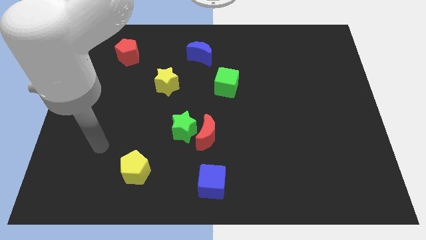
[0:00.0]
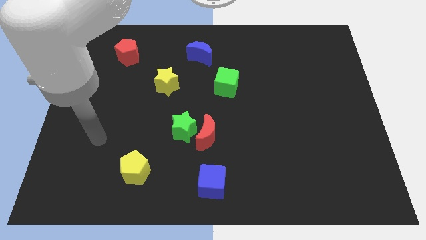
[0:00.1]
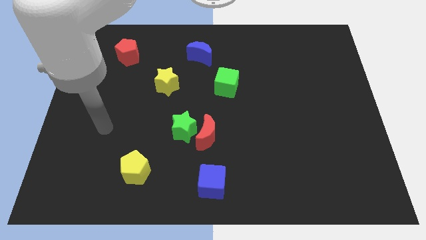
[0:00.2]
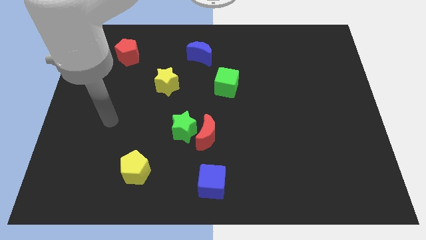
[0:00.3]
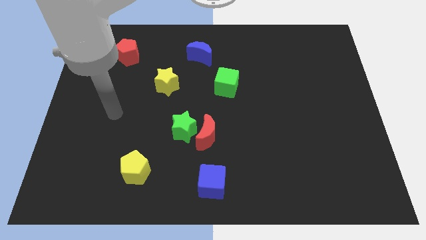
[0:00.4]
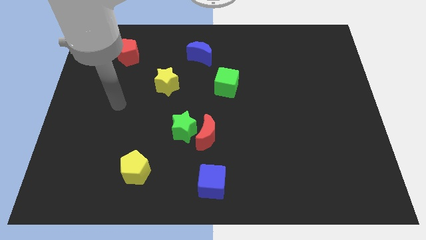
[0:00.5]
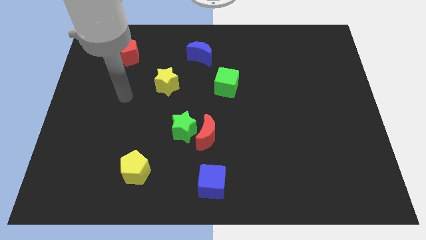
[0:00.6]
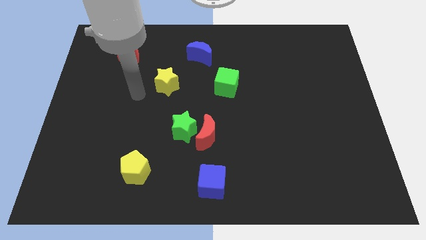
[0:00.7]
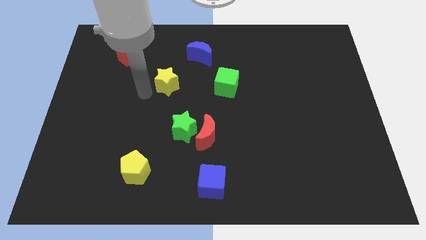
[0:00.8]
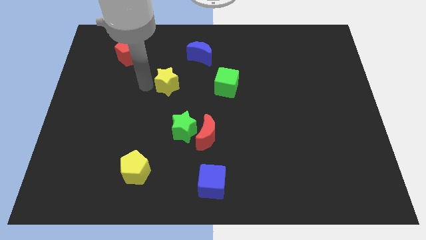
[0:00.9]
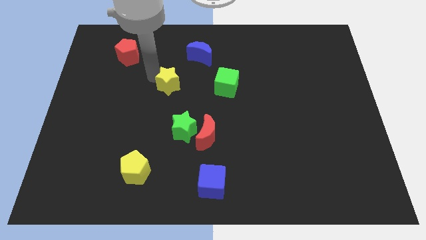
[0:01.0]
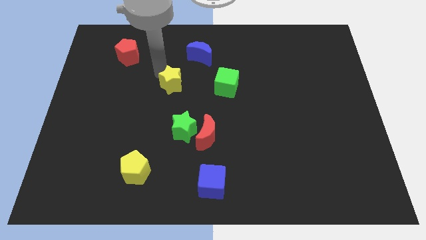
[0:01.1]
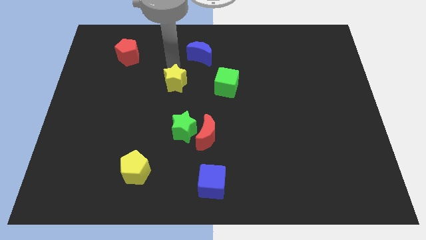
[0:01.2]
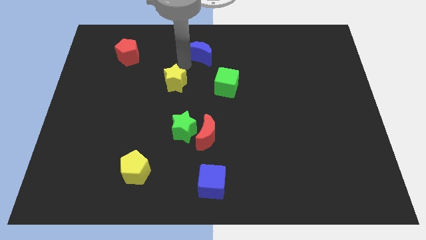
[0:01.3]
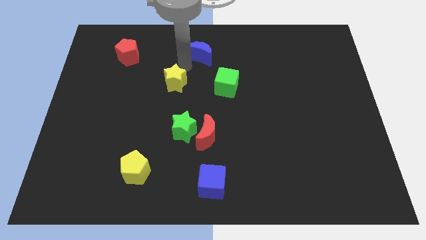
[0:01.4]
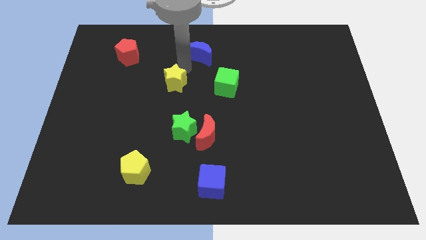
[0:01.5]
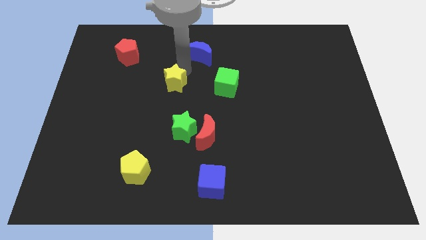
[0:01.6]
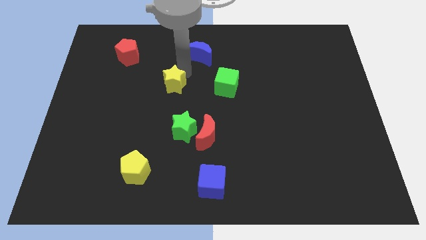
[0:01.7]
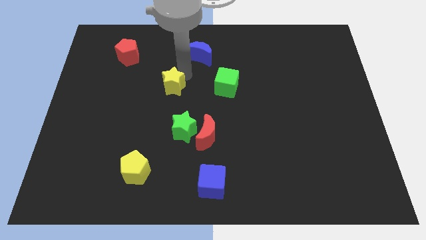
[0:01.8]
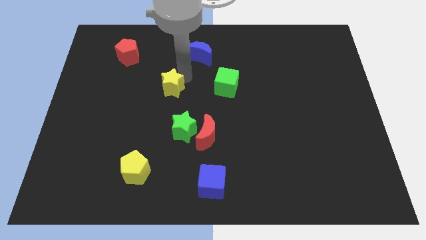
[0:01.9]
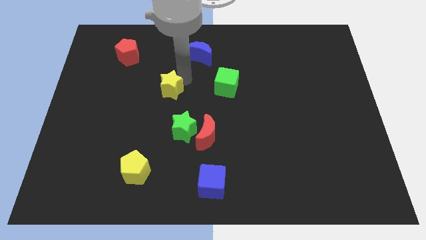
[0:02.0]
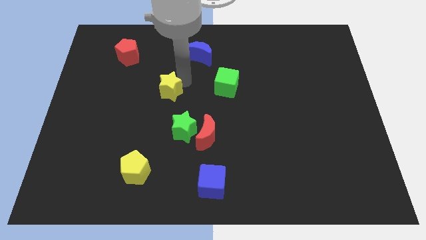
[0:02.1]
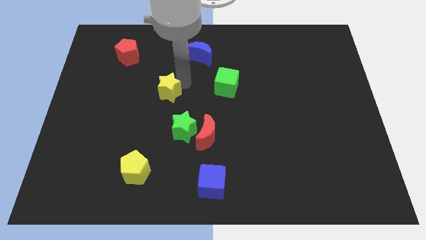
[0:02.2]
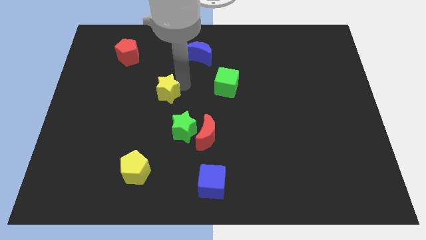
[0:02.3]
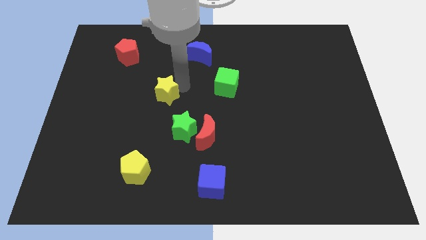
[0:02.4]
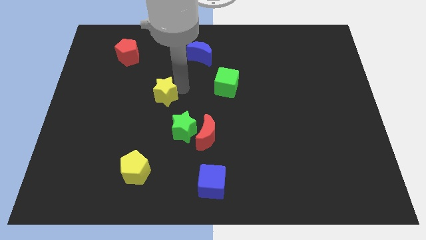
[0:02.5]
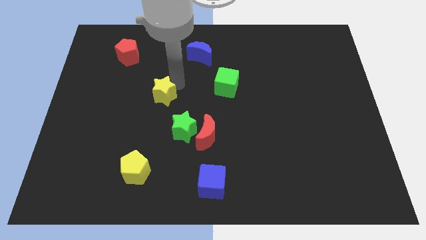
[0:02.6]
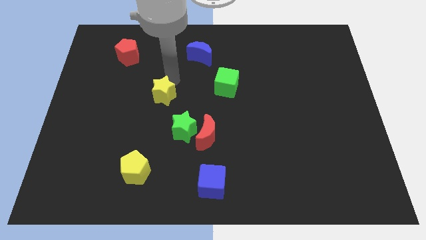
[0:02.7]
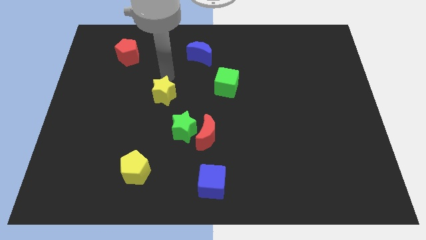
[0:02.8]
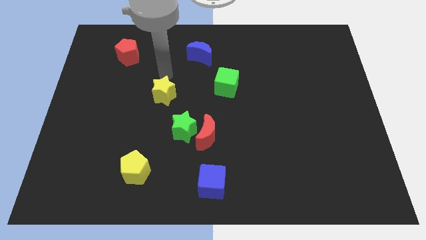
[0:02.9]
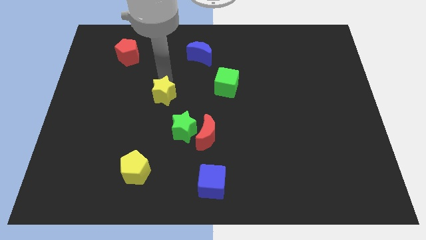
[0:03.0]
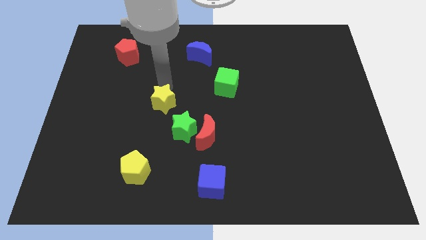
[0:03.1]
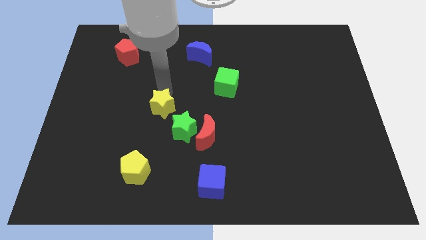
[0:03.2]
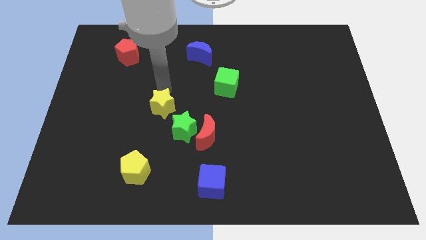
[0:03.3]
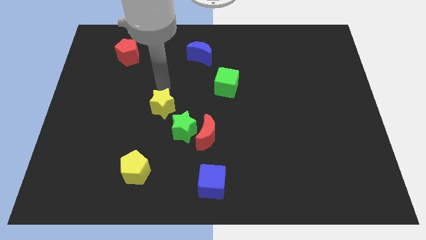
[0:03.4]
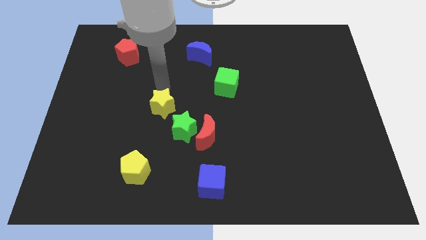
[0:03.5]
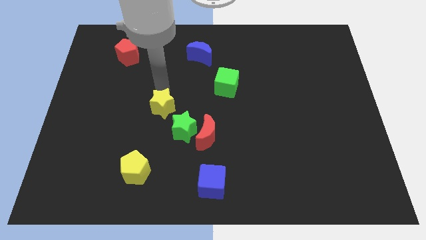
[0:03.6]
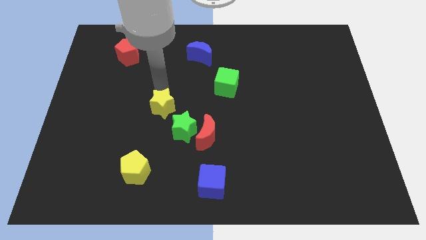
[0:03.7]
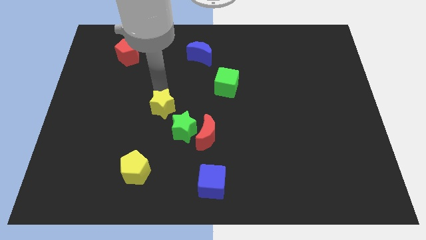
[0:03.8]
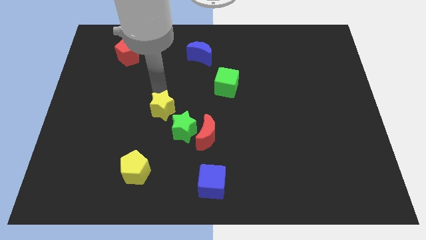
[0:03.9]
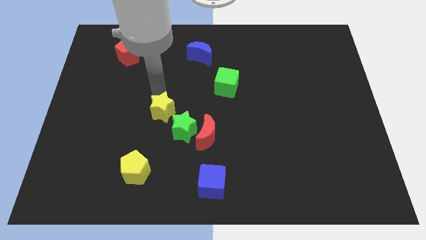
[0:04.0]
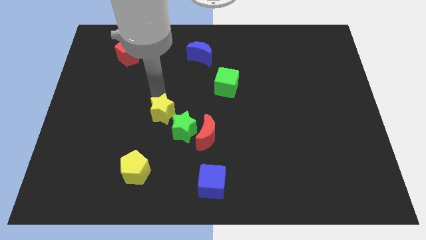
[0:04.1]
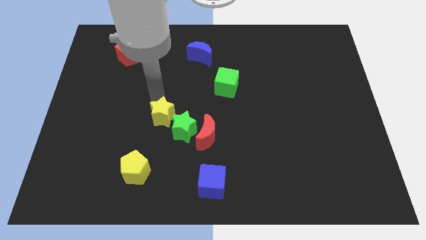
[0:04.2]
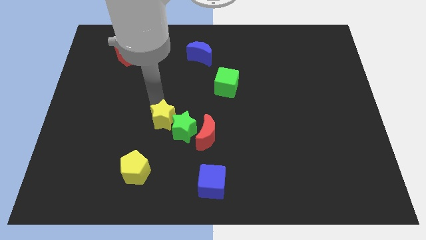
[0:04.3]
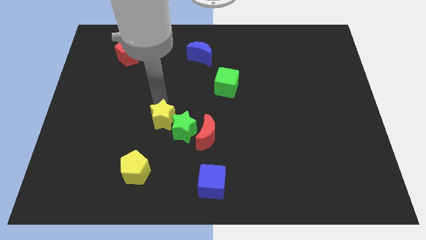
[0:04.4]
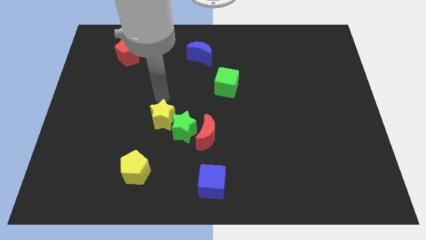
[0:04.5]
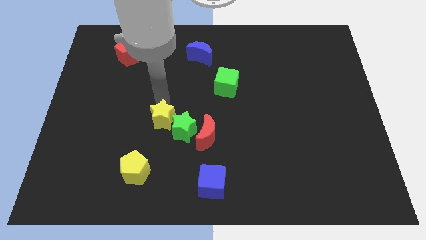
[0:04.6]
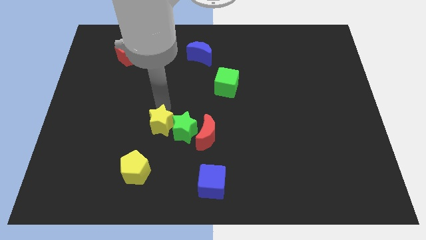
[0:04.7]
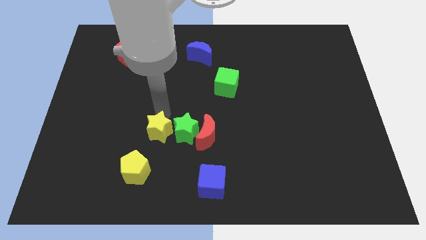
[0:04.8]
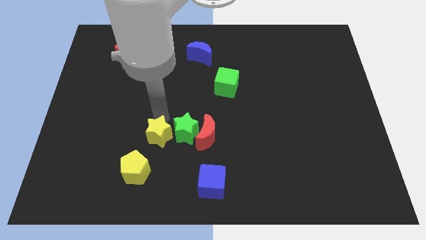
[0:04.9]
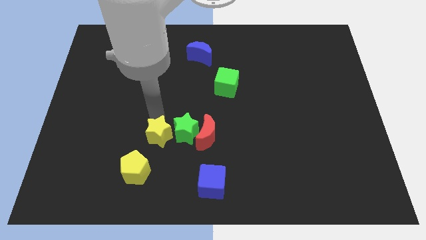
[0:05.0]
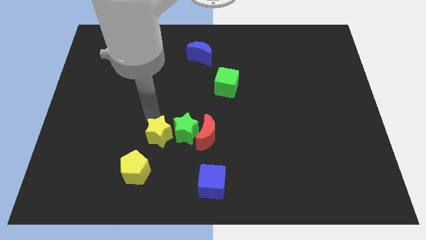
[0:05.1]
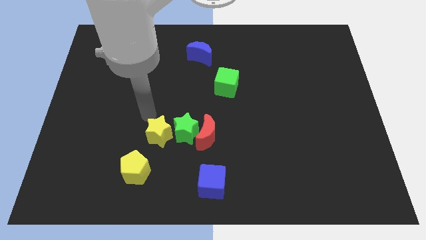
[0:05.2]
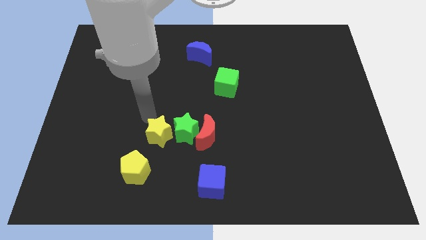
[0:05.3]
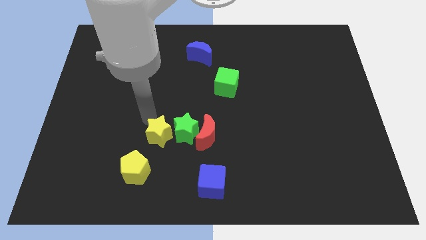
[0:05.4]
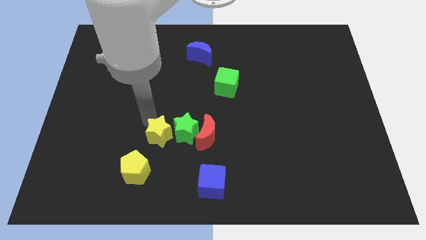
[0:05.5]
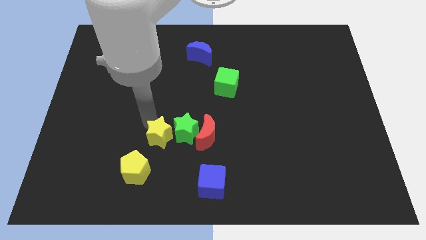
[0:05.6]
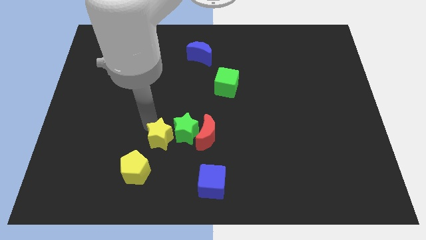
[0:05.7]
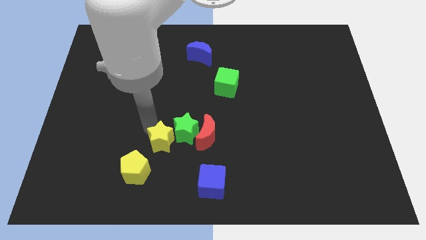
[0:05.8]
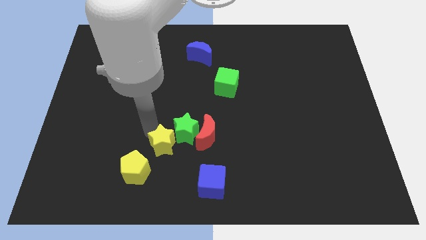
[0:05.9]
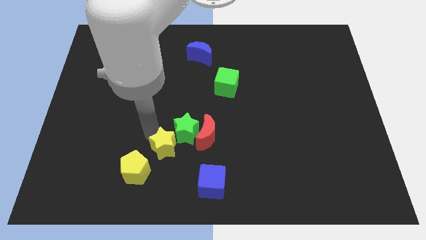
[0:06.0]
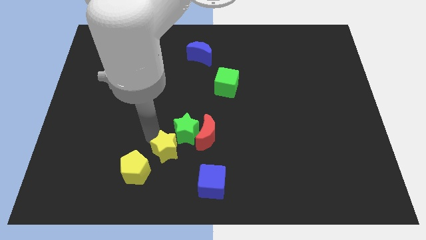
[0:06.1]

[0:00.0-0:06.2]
slide the yellow star to the top left of the blue cube
